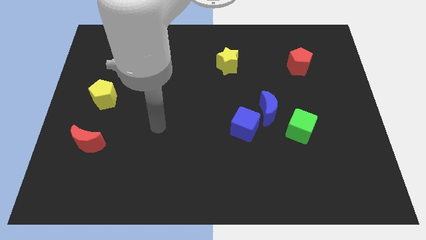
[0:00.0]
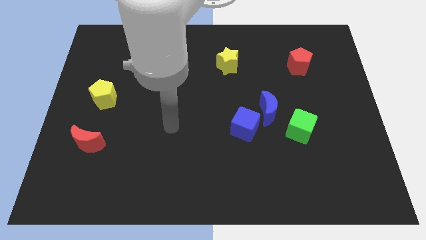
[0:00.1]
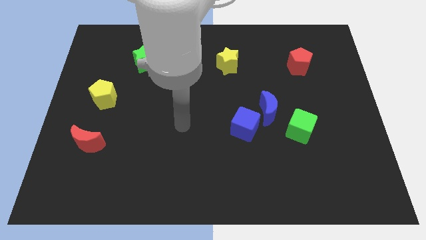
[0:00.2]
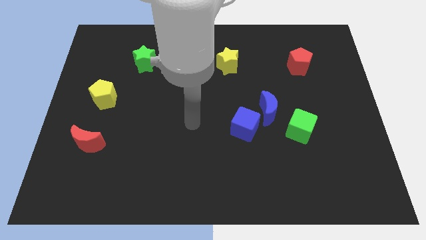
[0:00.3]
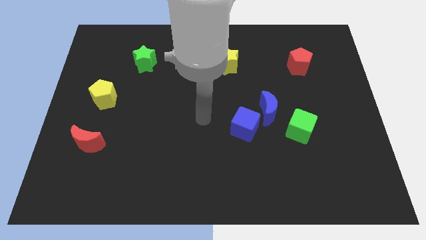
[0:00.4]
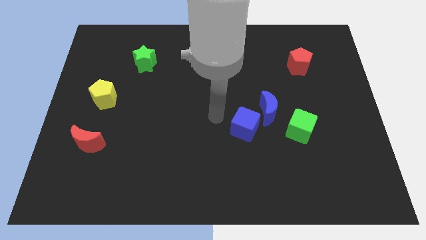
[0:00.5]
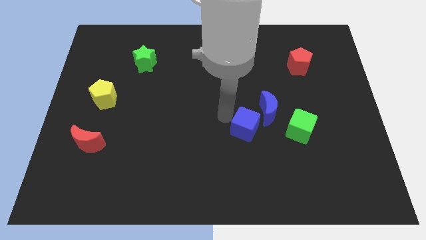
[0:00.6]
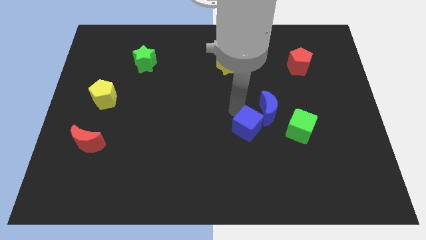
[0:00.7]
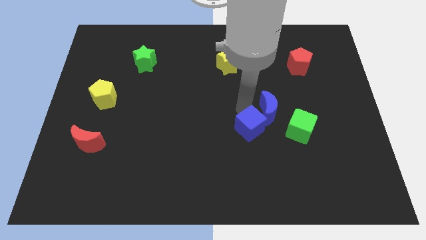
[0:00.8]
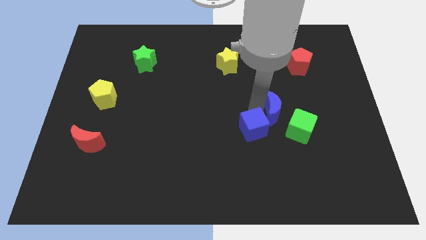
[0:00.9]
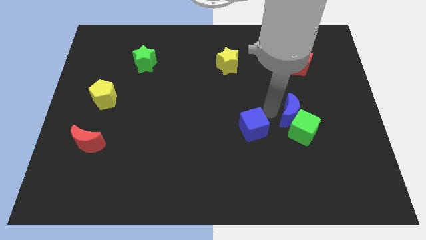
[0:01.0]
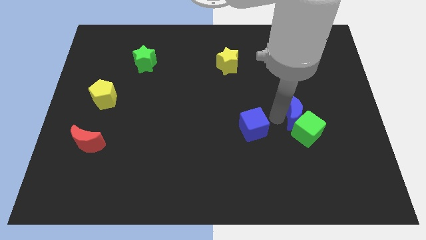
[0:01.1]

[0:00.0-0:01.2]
pull the blue cube apart from the blue moon

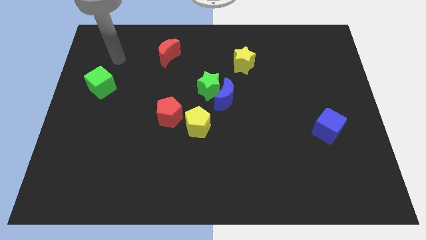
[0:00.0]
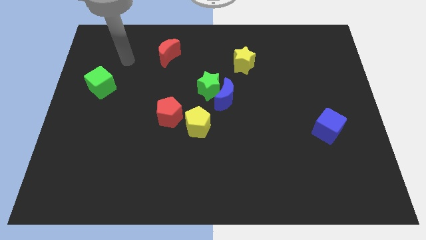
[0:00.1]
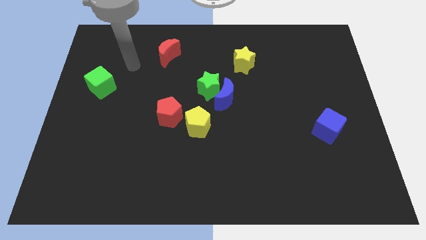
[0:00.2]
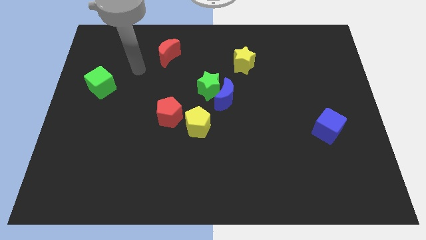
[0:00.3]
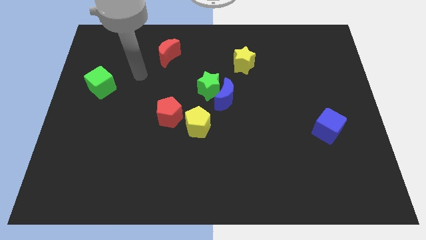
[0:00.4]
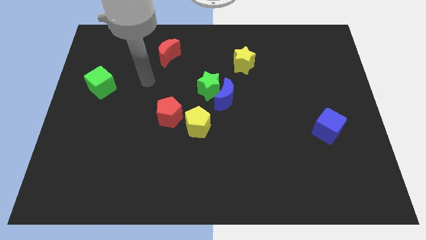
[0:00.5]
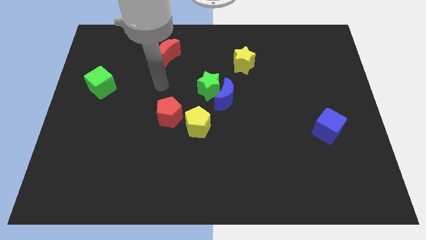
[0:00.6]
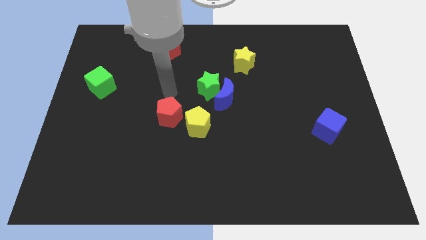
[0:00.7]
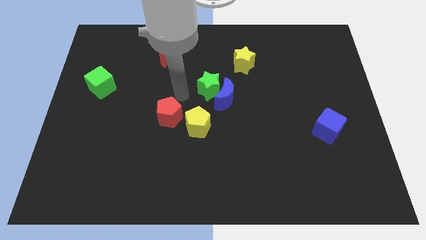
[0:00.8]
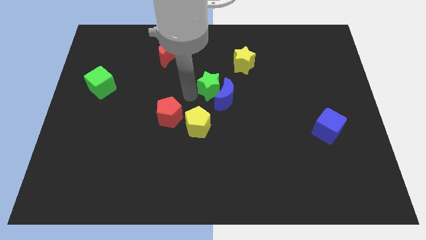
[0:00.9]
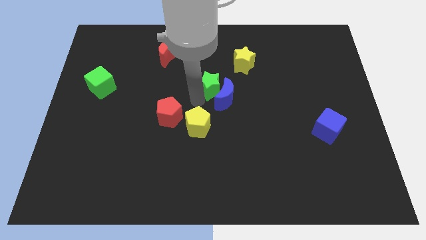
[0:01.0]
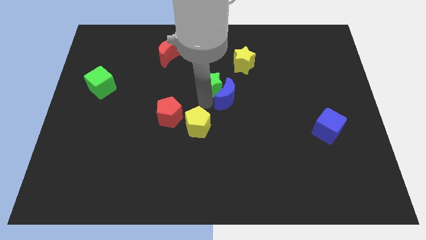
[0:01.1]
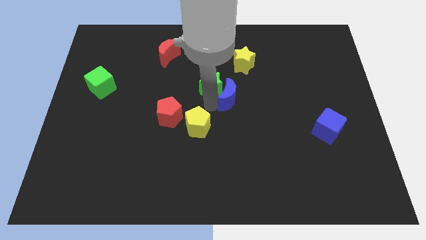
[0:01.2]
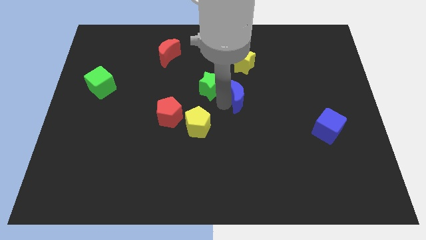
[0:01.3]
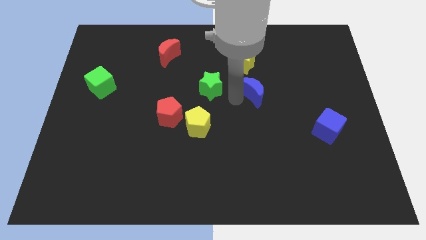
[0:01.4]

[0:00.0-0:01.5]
separate the green star from the blue moon

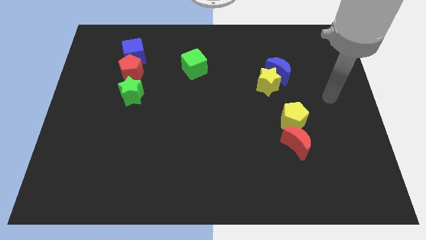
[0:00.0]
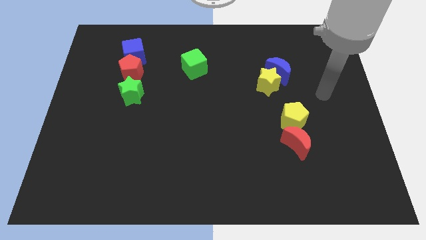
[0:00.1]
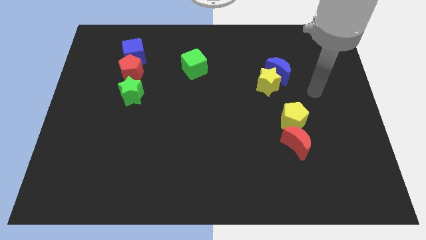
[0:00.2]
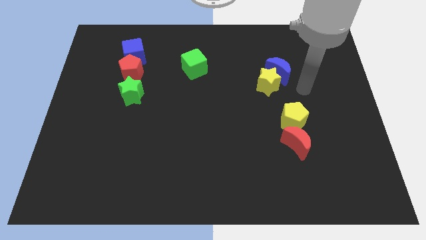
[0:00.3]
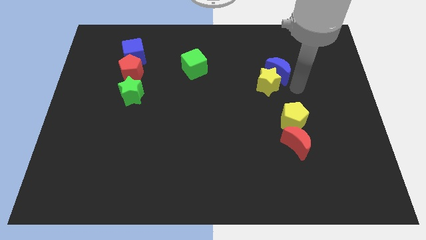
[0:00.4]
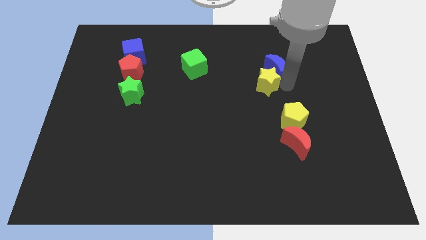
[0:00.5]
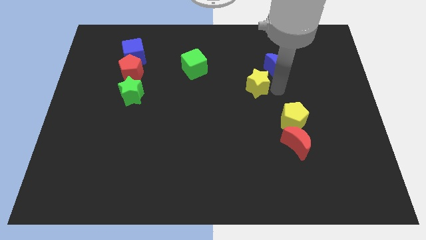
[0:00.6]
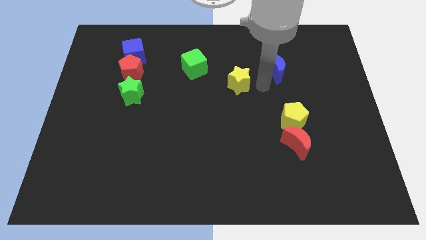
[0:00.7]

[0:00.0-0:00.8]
separate the blue moon from the yellow star

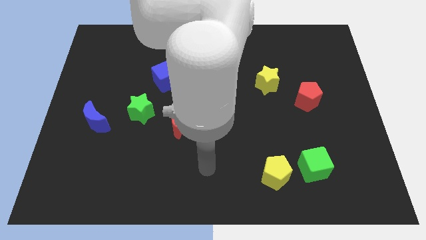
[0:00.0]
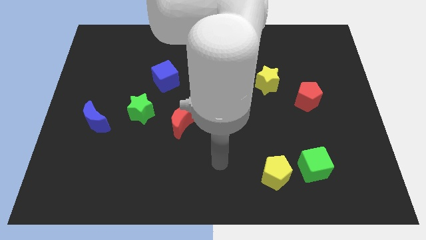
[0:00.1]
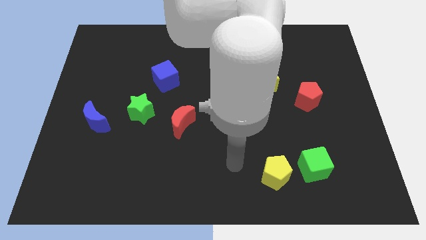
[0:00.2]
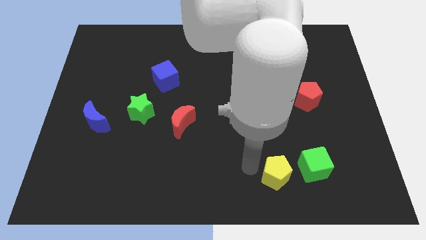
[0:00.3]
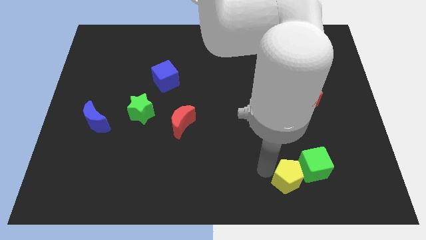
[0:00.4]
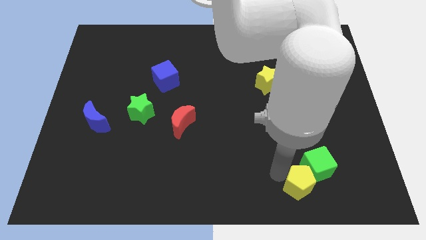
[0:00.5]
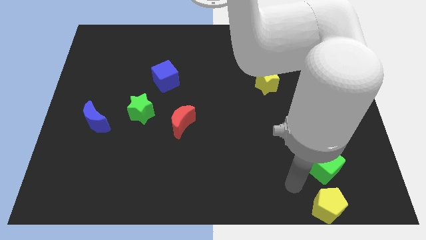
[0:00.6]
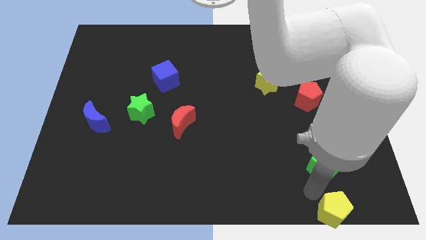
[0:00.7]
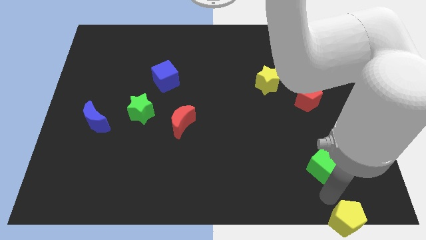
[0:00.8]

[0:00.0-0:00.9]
separate the green cube from the yellow pentagon

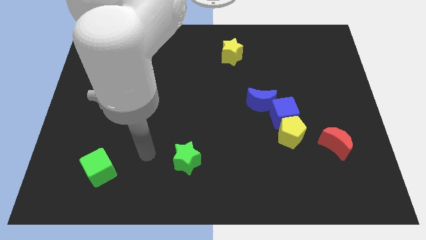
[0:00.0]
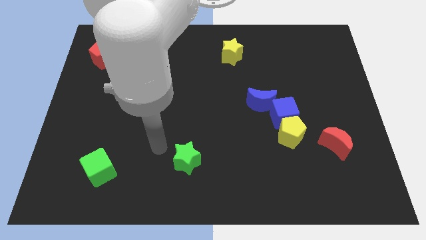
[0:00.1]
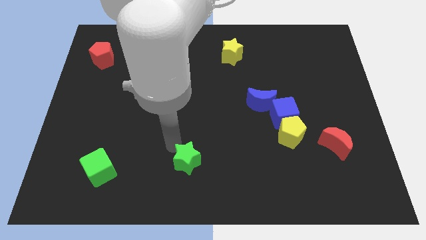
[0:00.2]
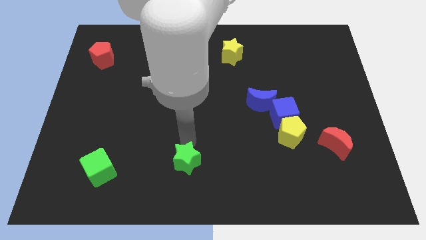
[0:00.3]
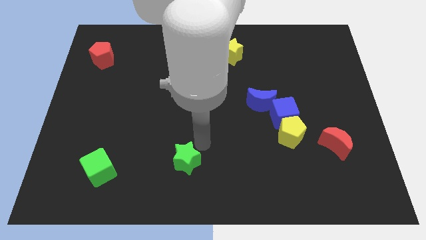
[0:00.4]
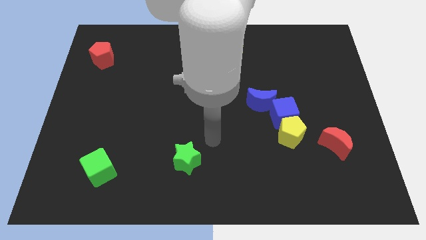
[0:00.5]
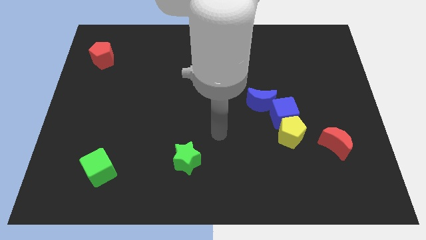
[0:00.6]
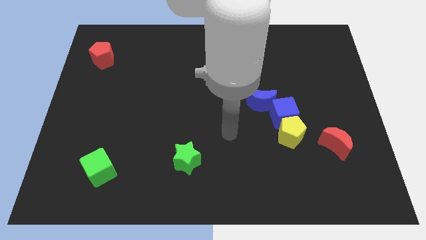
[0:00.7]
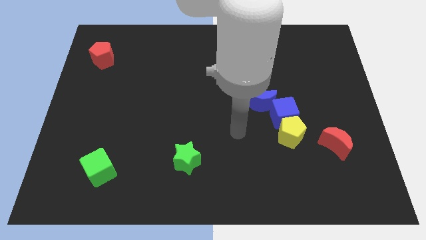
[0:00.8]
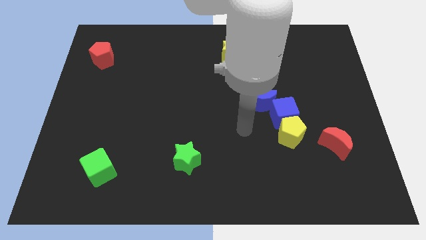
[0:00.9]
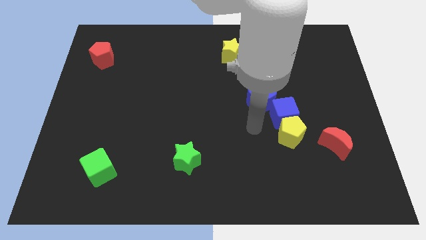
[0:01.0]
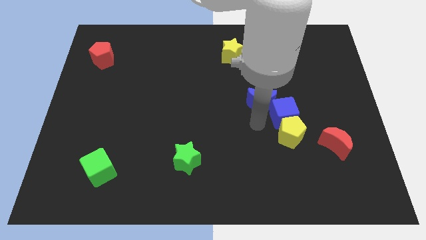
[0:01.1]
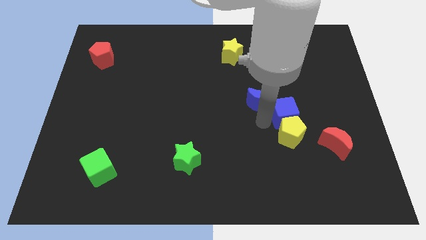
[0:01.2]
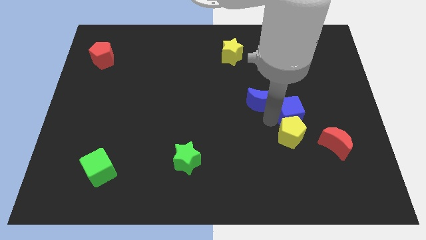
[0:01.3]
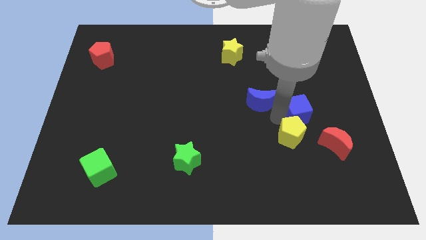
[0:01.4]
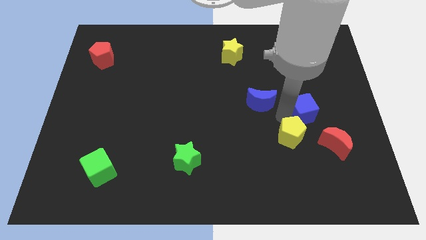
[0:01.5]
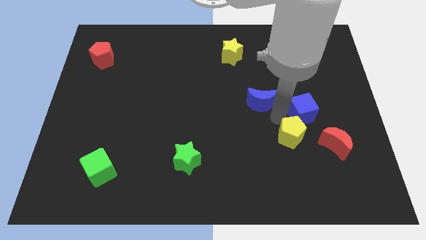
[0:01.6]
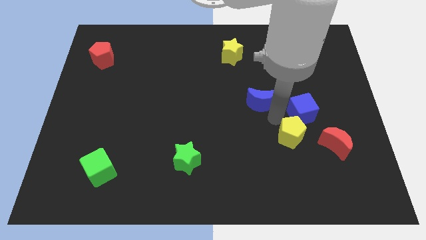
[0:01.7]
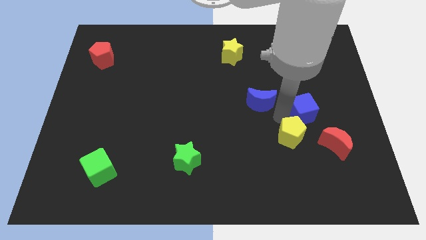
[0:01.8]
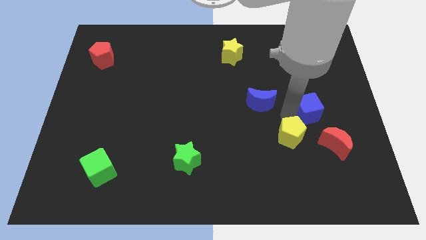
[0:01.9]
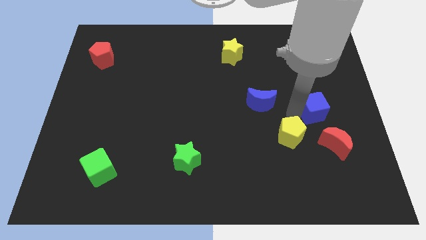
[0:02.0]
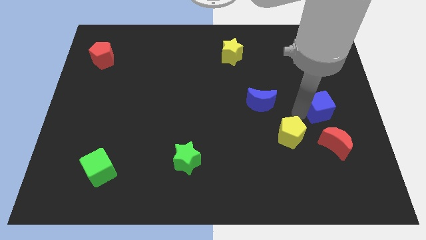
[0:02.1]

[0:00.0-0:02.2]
pull the blue cube apart from the yellow pentagon and blue moon

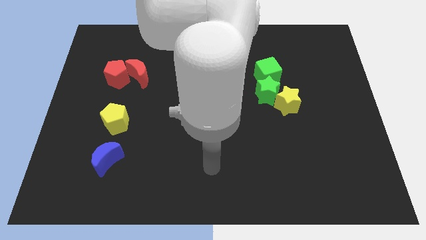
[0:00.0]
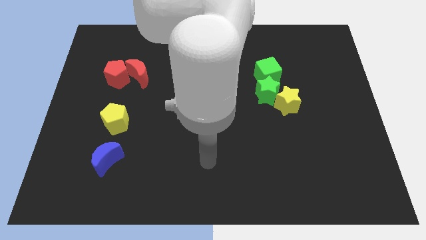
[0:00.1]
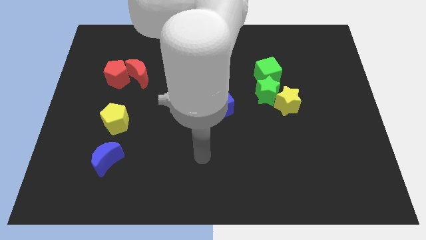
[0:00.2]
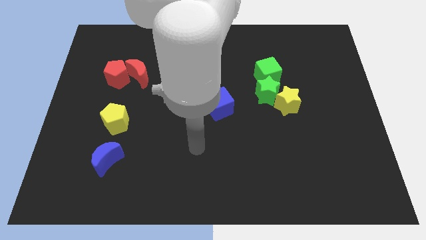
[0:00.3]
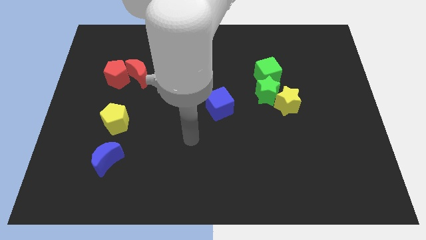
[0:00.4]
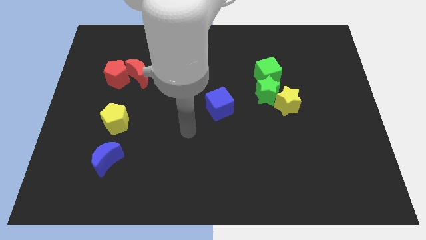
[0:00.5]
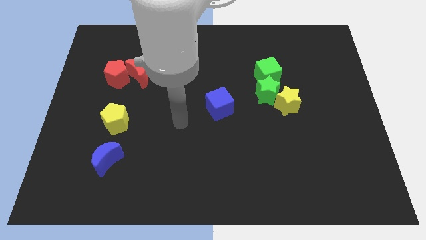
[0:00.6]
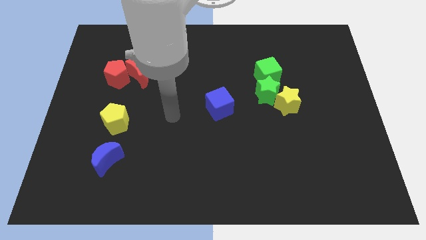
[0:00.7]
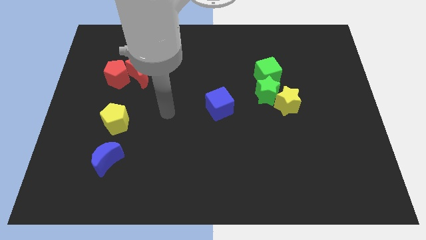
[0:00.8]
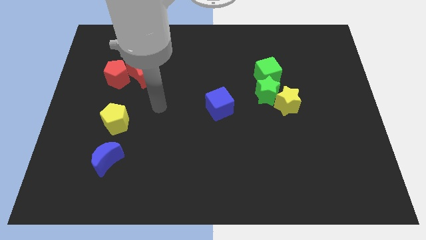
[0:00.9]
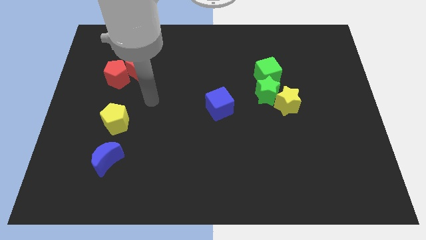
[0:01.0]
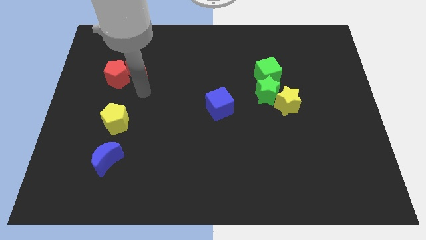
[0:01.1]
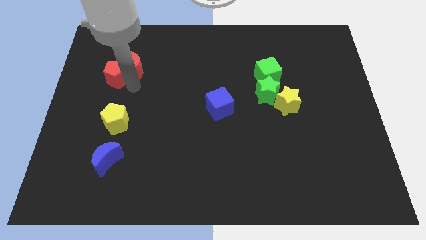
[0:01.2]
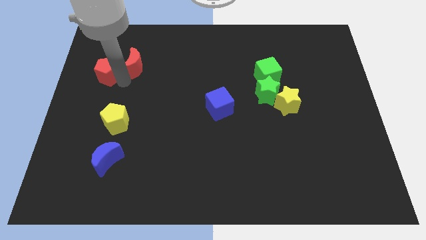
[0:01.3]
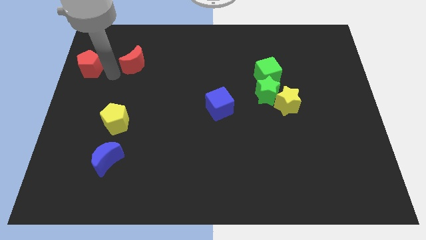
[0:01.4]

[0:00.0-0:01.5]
move the red moon away from the red pentagon

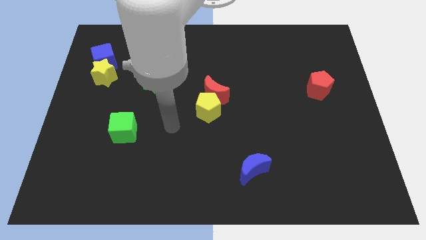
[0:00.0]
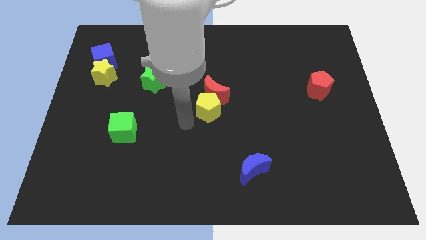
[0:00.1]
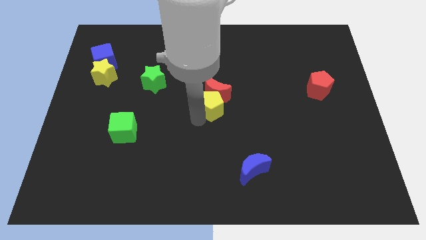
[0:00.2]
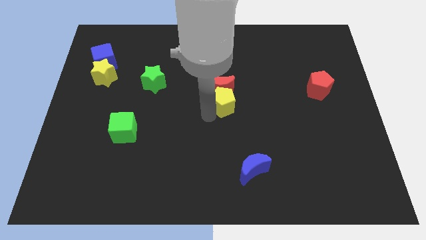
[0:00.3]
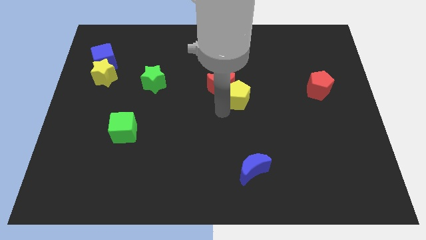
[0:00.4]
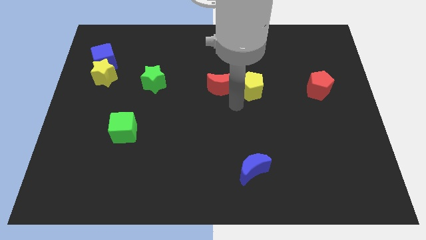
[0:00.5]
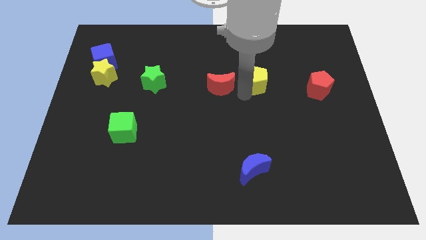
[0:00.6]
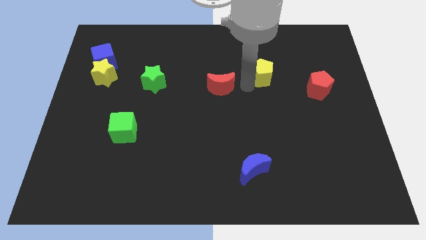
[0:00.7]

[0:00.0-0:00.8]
pull the red moon apart from the yellow pentagon

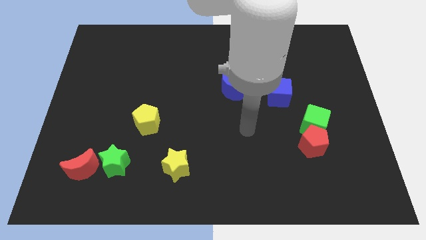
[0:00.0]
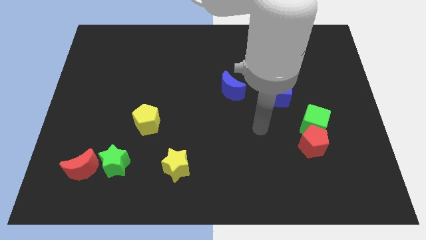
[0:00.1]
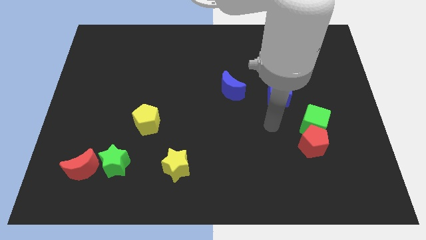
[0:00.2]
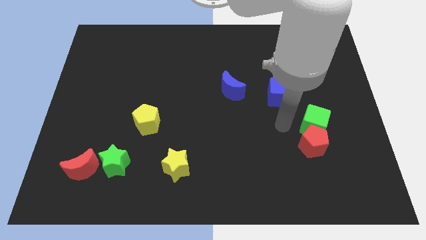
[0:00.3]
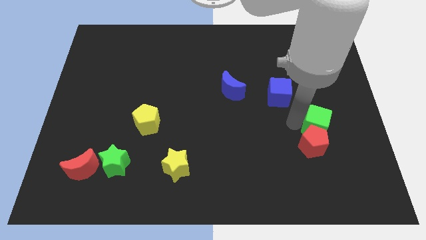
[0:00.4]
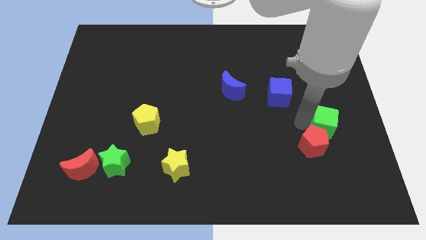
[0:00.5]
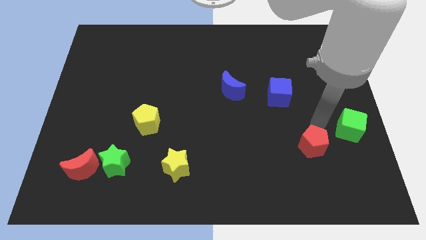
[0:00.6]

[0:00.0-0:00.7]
move the red pentagon away from the green cube
